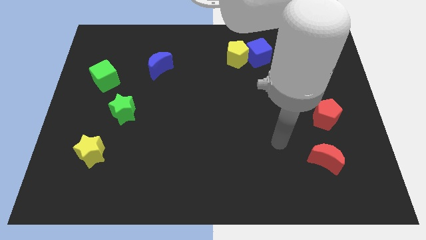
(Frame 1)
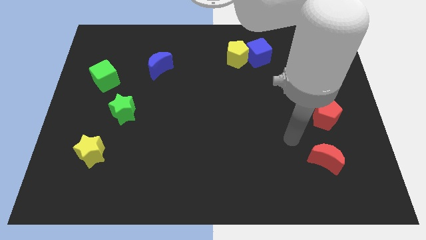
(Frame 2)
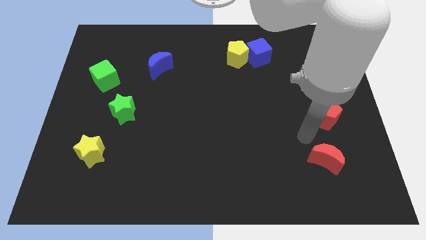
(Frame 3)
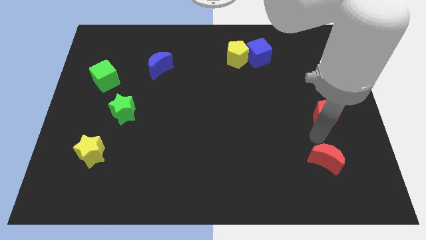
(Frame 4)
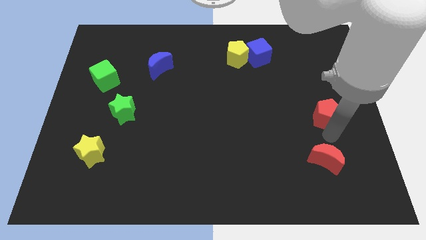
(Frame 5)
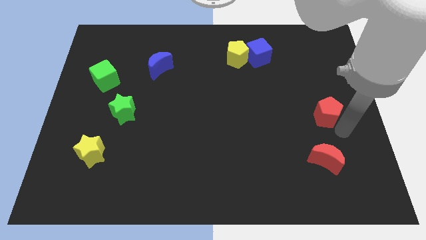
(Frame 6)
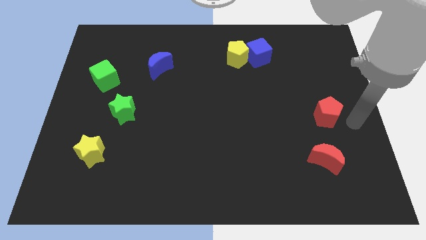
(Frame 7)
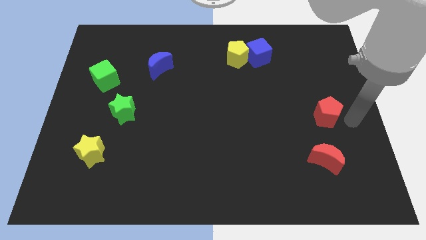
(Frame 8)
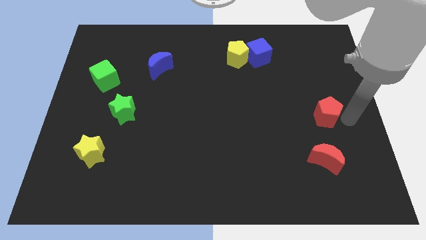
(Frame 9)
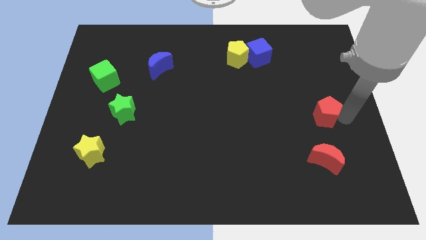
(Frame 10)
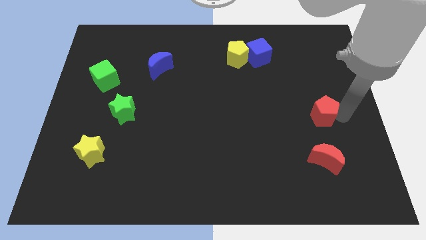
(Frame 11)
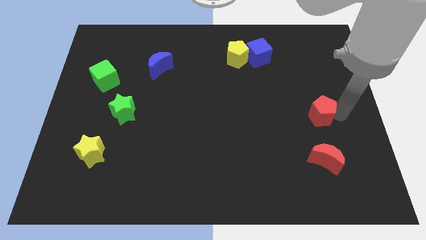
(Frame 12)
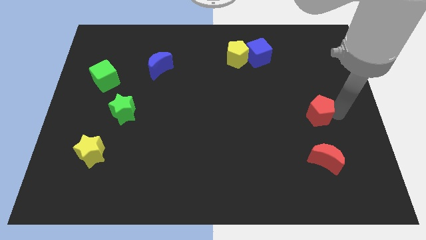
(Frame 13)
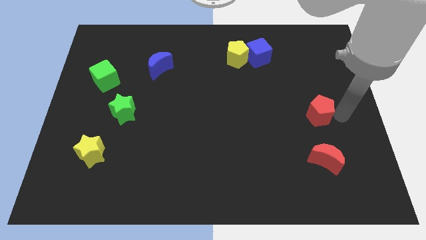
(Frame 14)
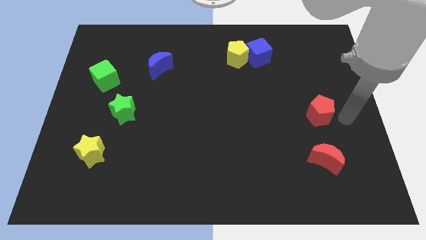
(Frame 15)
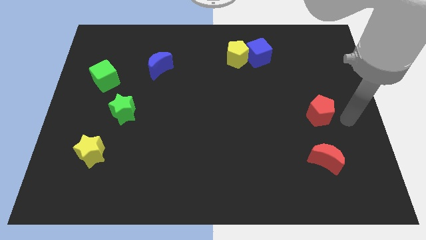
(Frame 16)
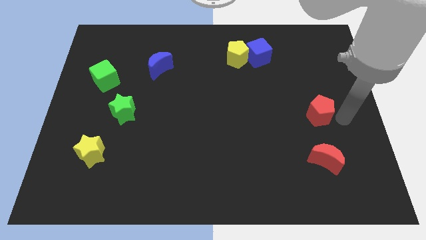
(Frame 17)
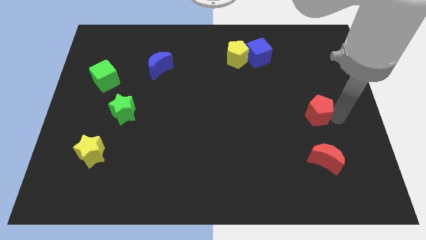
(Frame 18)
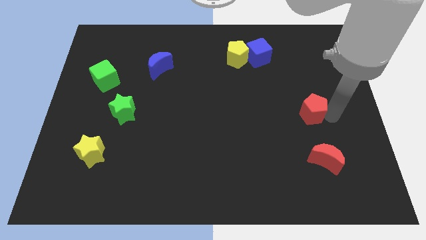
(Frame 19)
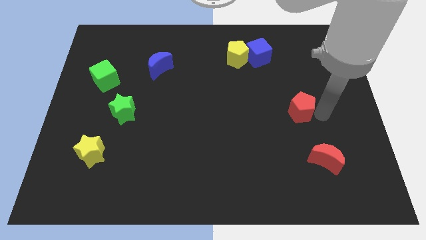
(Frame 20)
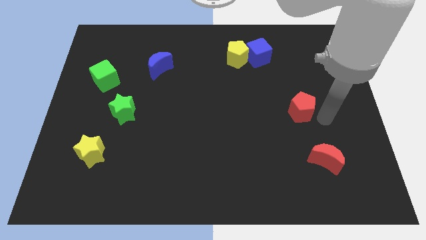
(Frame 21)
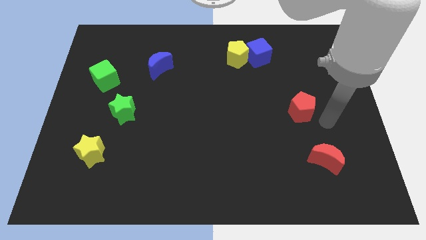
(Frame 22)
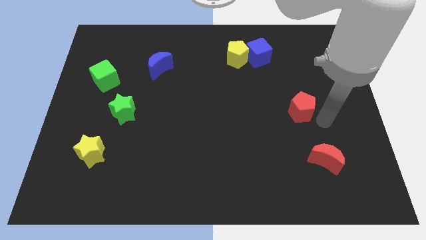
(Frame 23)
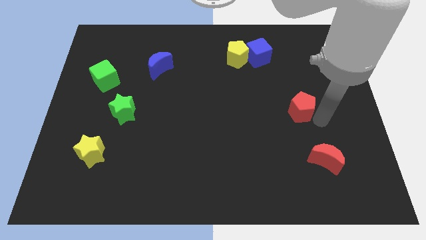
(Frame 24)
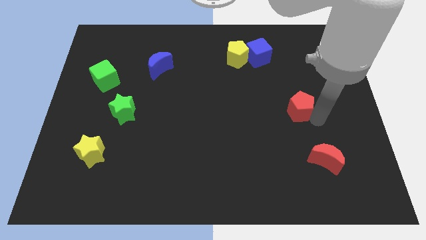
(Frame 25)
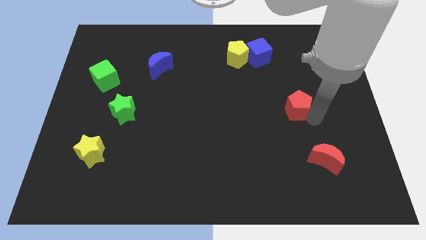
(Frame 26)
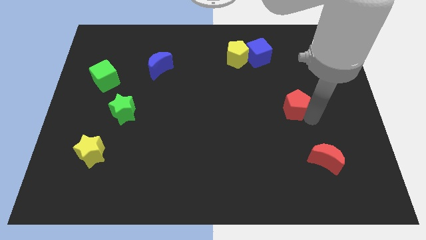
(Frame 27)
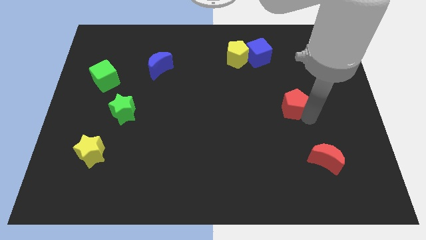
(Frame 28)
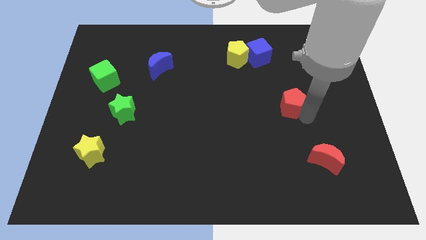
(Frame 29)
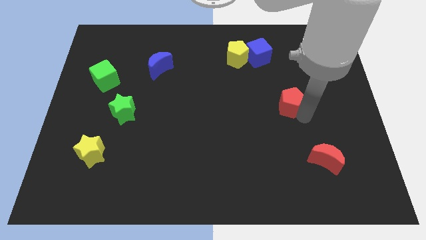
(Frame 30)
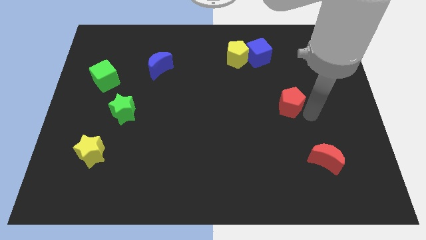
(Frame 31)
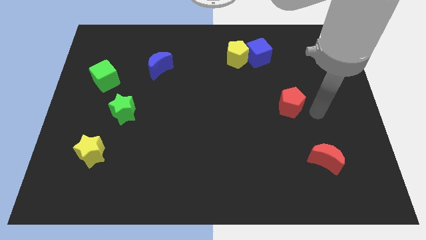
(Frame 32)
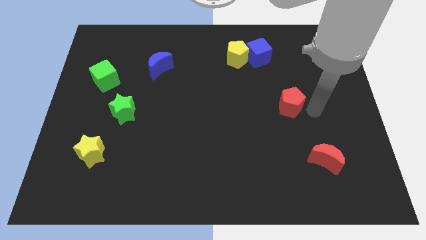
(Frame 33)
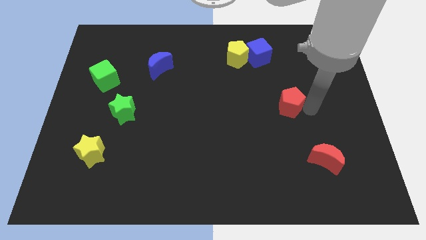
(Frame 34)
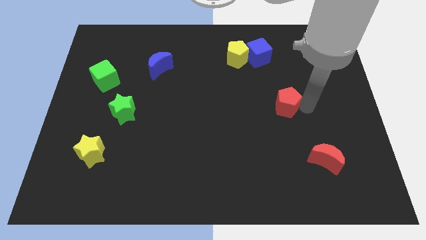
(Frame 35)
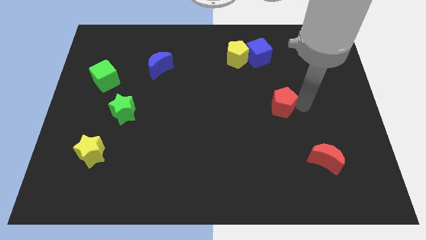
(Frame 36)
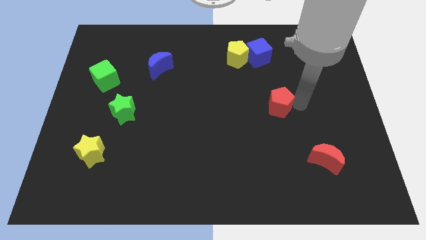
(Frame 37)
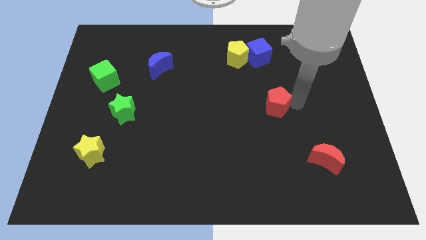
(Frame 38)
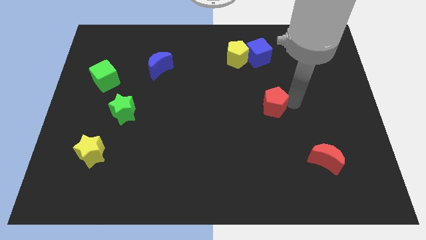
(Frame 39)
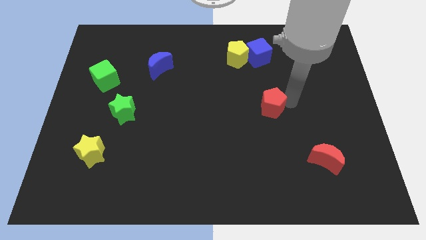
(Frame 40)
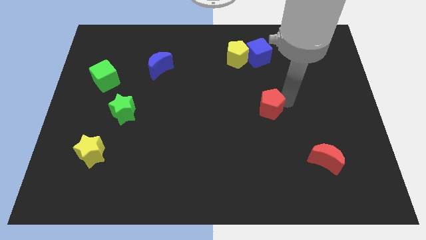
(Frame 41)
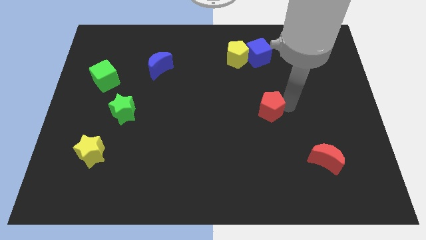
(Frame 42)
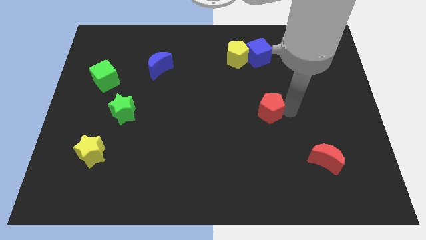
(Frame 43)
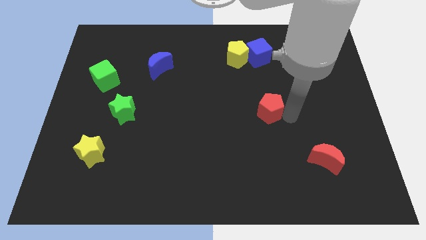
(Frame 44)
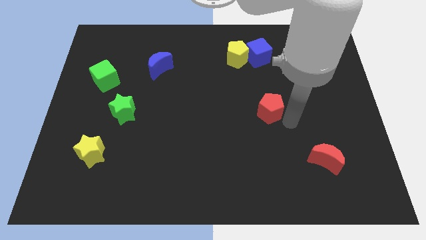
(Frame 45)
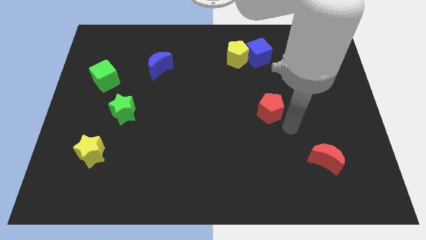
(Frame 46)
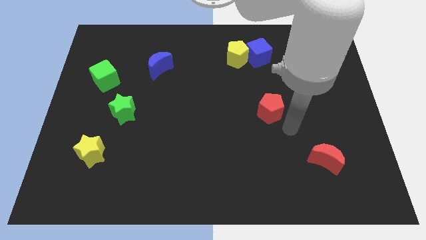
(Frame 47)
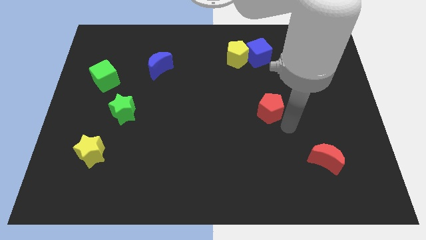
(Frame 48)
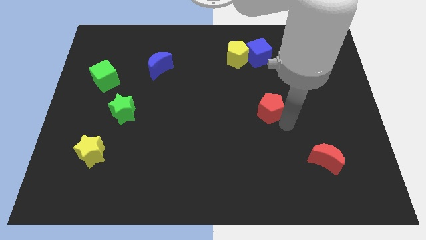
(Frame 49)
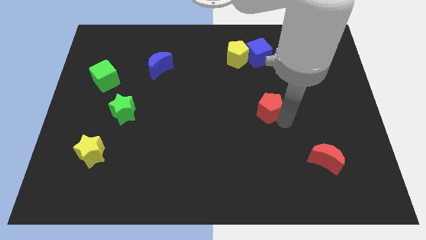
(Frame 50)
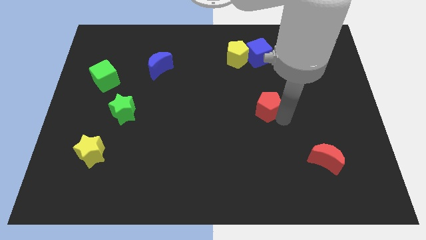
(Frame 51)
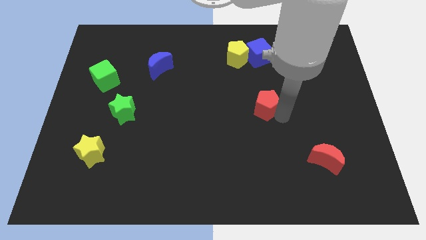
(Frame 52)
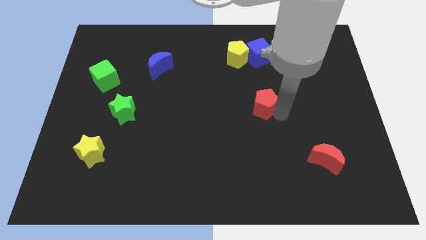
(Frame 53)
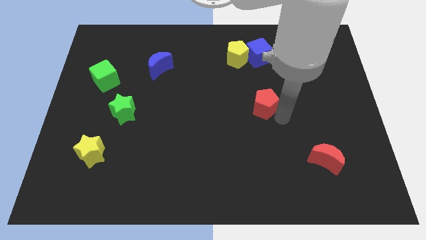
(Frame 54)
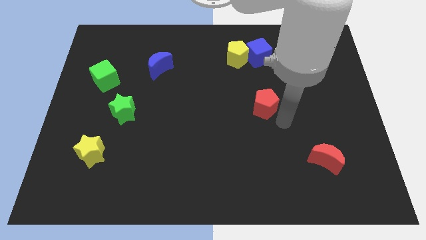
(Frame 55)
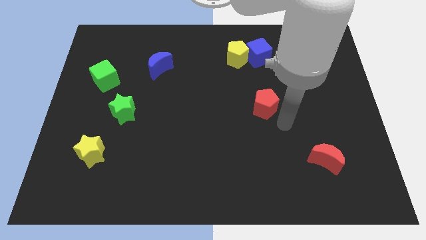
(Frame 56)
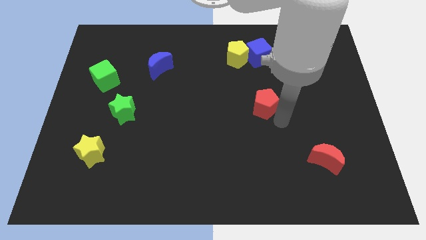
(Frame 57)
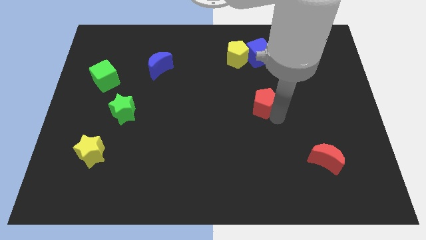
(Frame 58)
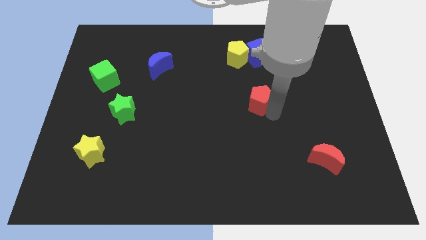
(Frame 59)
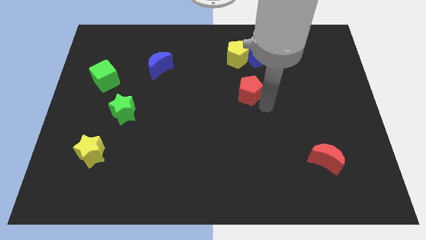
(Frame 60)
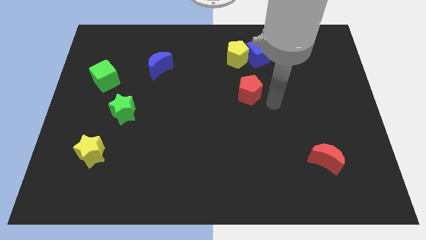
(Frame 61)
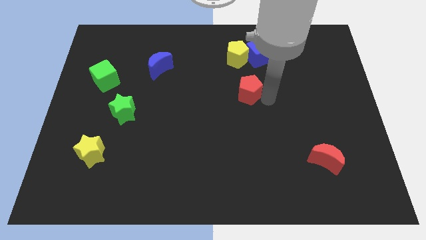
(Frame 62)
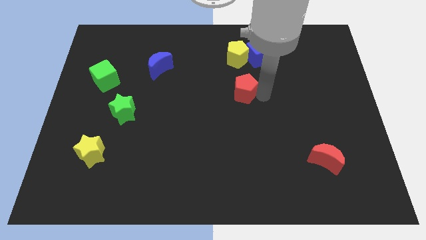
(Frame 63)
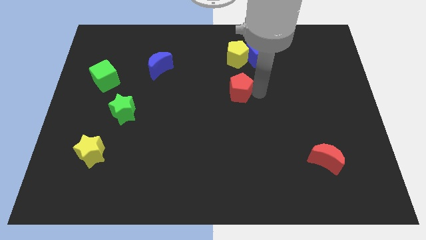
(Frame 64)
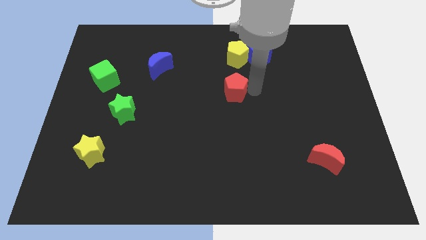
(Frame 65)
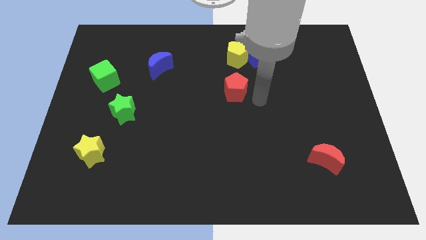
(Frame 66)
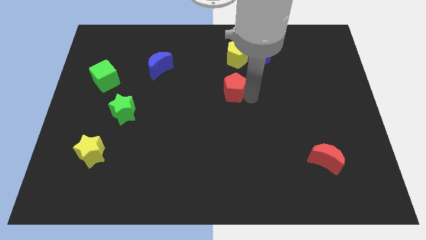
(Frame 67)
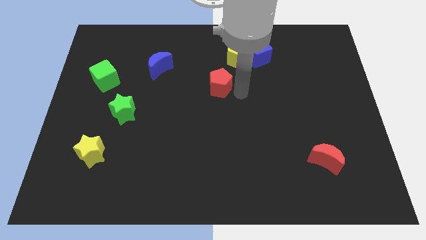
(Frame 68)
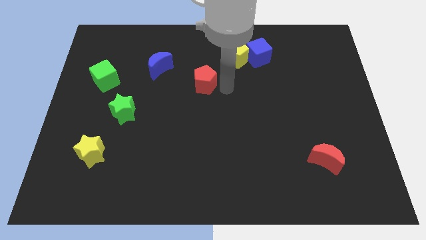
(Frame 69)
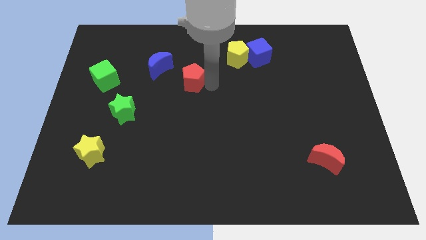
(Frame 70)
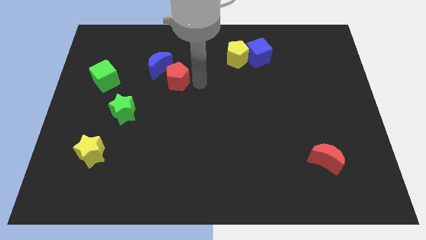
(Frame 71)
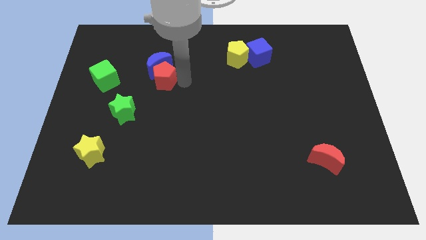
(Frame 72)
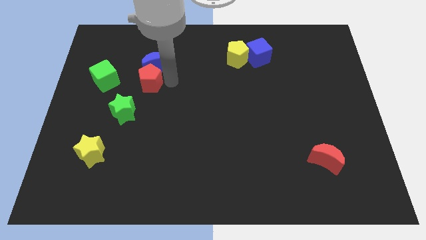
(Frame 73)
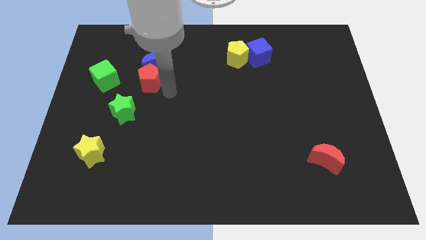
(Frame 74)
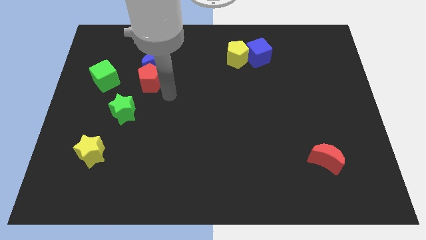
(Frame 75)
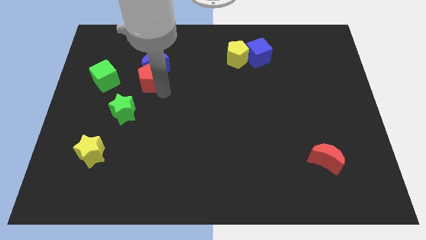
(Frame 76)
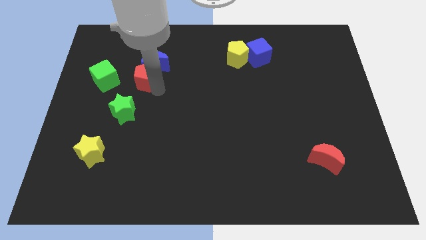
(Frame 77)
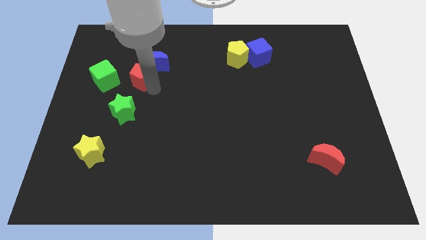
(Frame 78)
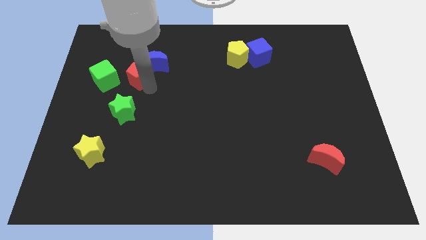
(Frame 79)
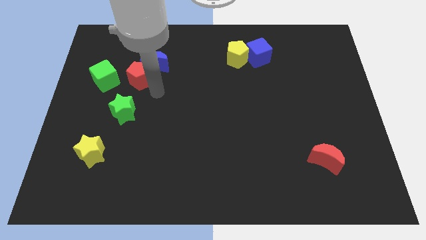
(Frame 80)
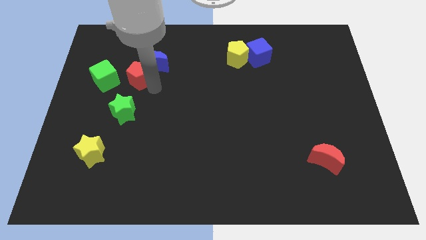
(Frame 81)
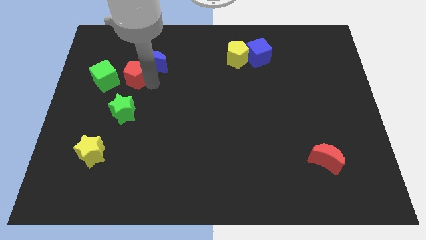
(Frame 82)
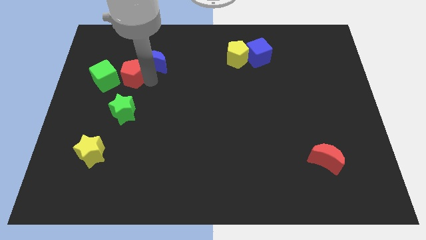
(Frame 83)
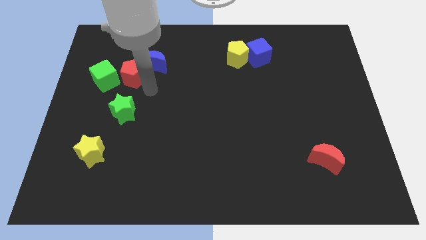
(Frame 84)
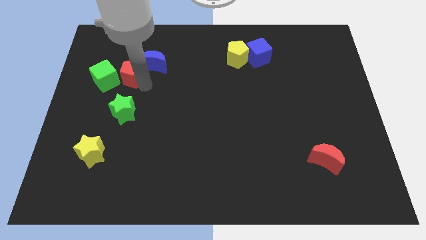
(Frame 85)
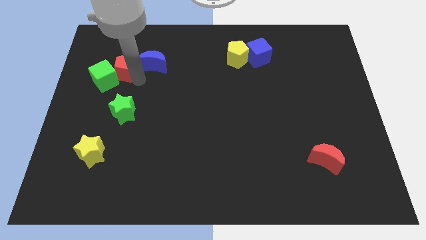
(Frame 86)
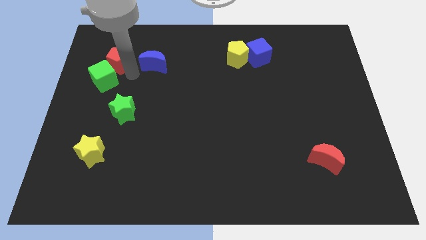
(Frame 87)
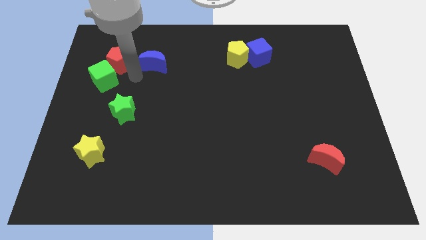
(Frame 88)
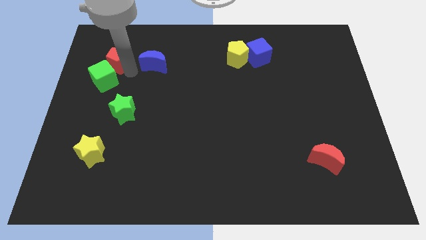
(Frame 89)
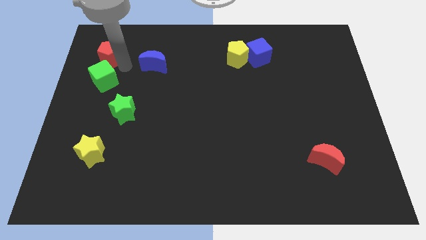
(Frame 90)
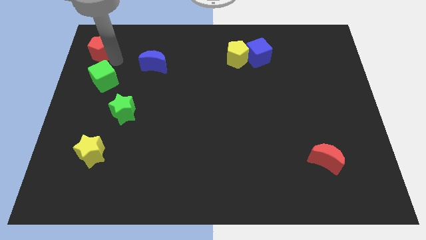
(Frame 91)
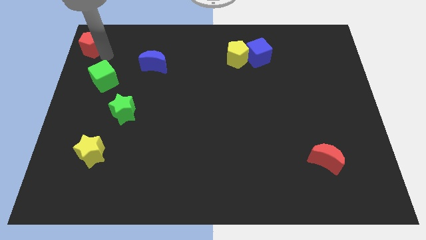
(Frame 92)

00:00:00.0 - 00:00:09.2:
push the red pentagon to the top left corner
